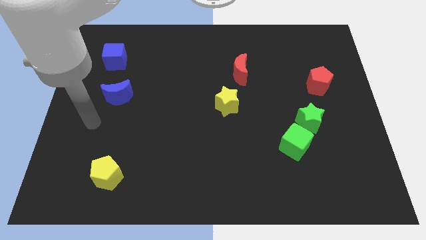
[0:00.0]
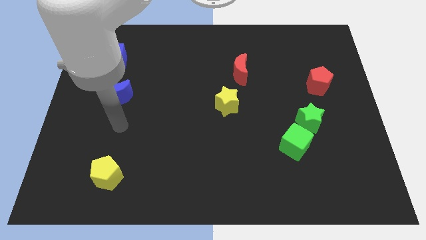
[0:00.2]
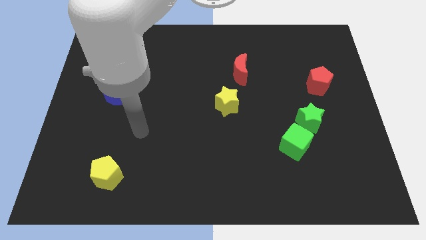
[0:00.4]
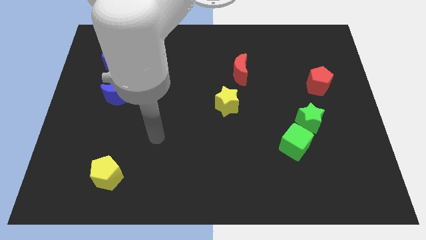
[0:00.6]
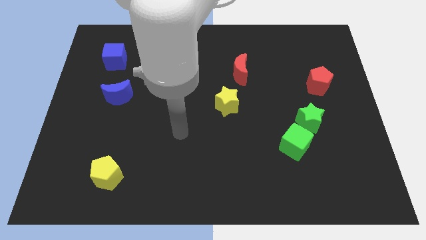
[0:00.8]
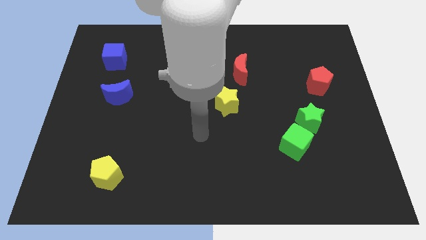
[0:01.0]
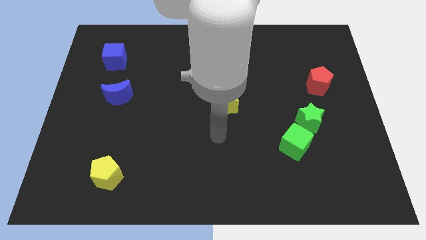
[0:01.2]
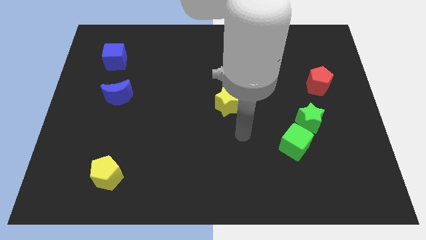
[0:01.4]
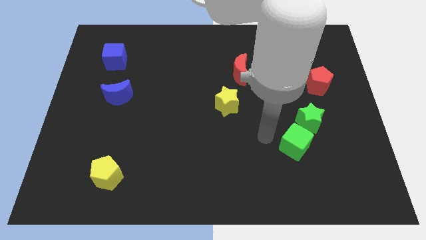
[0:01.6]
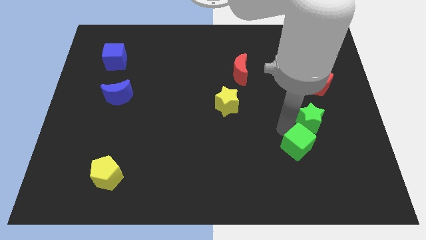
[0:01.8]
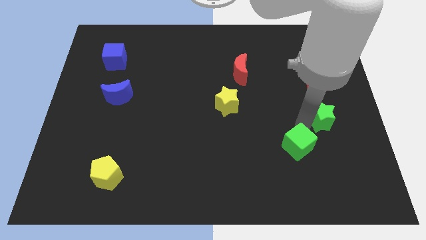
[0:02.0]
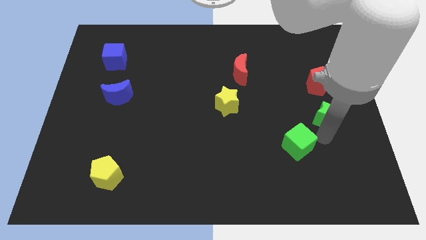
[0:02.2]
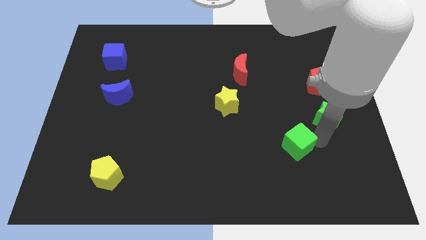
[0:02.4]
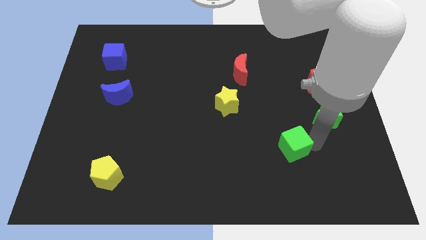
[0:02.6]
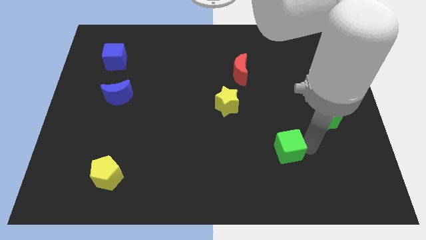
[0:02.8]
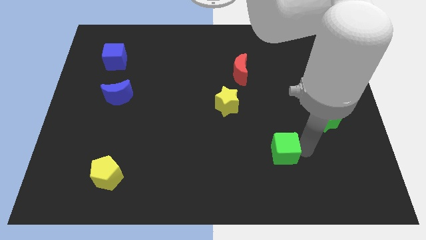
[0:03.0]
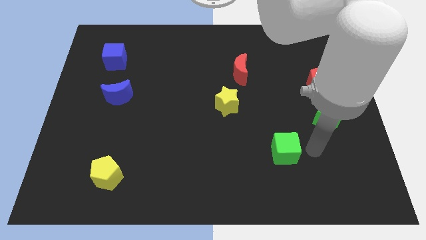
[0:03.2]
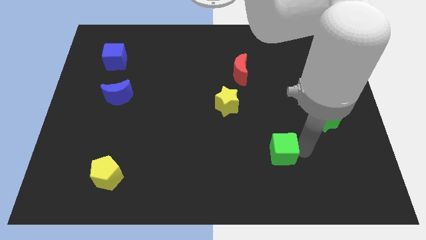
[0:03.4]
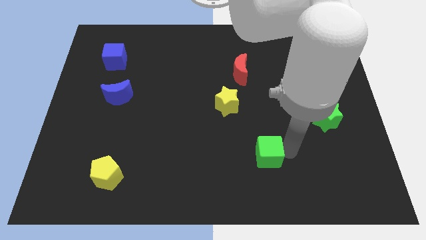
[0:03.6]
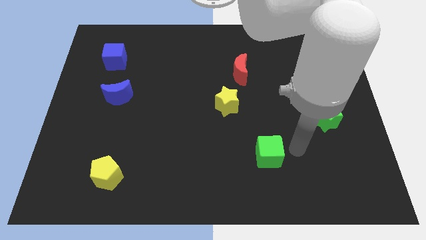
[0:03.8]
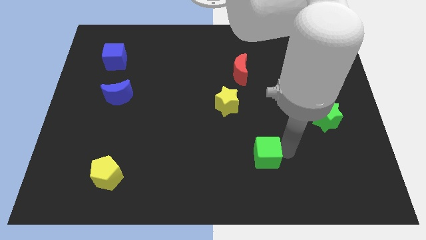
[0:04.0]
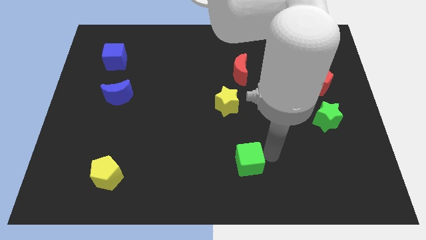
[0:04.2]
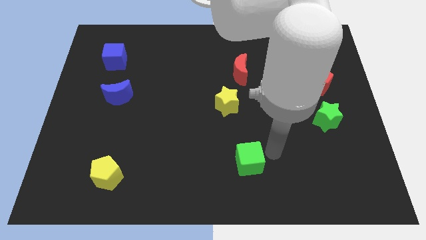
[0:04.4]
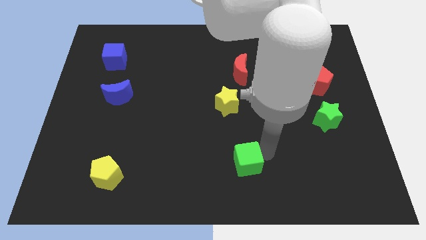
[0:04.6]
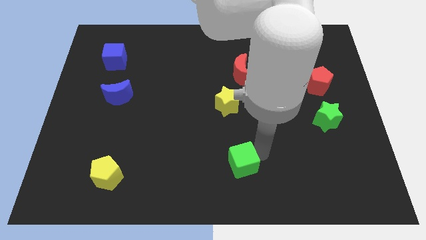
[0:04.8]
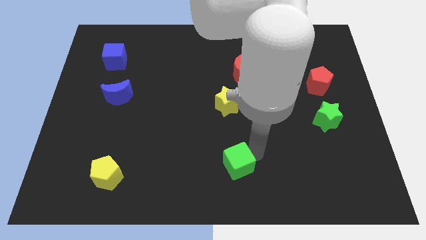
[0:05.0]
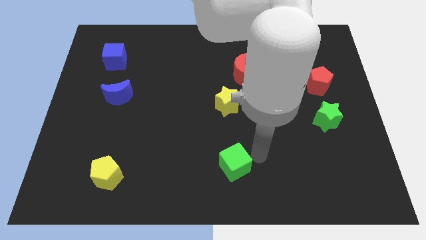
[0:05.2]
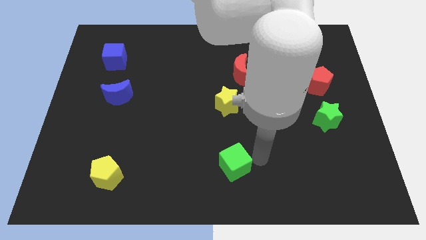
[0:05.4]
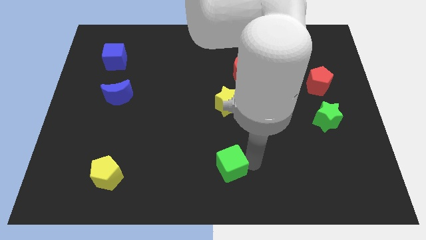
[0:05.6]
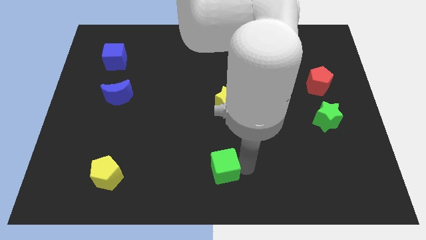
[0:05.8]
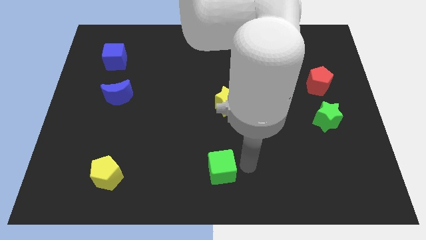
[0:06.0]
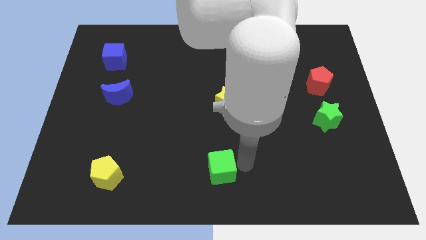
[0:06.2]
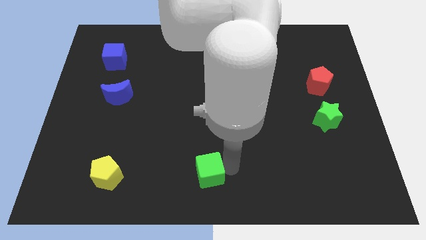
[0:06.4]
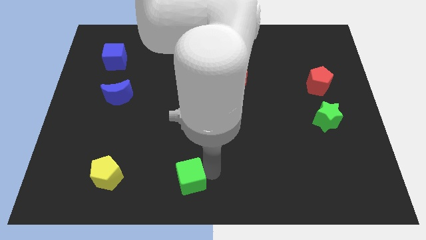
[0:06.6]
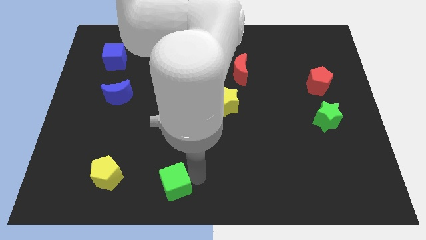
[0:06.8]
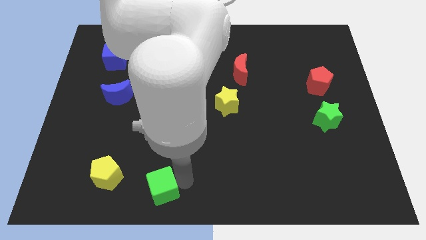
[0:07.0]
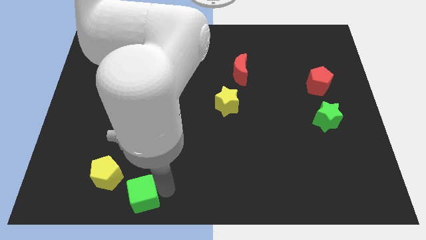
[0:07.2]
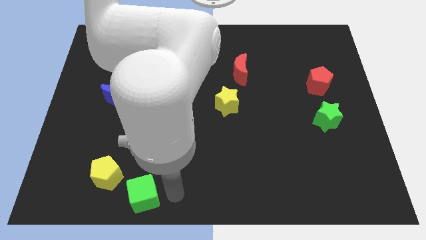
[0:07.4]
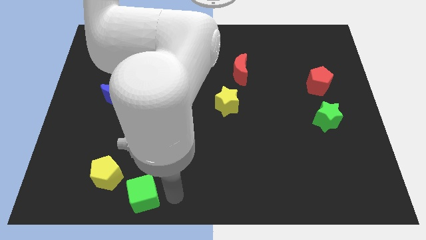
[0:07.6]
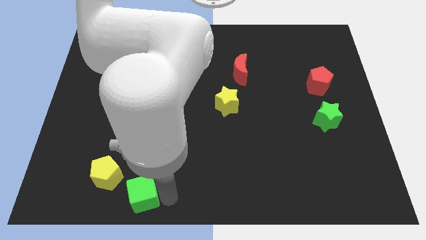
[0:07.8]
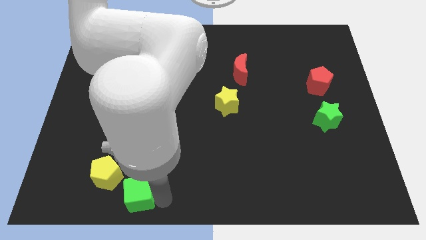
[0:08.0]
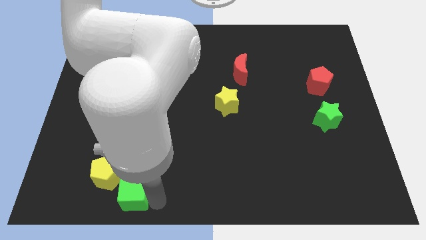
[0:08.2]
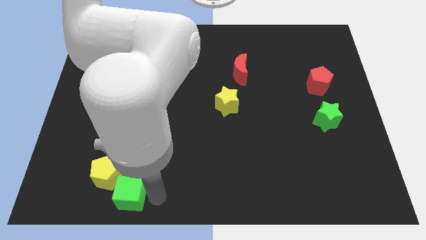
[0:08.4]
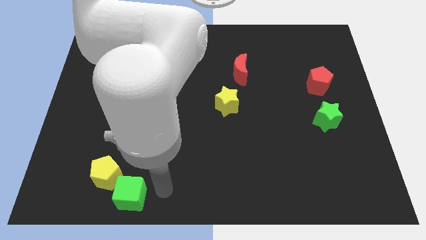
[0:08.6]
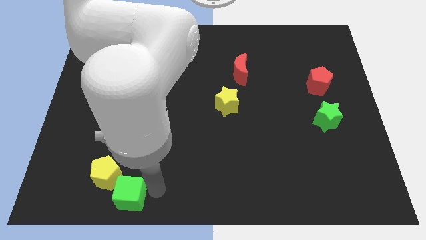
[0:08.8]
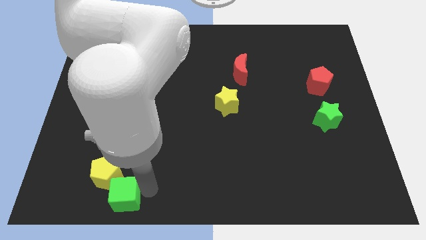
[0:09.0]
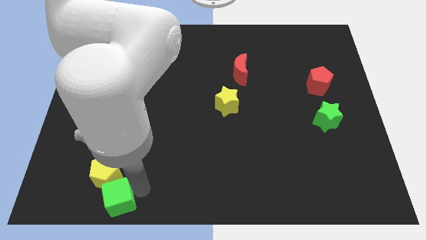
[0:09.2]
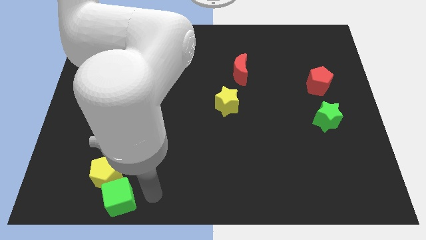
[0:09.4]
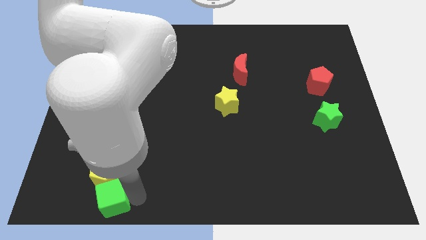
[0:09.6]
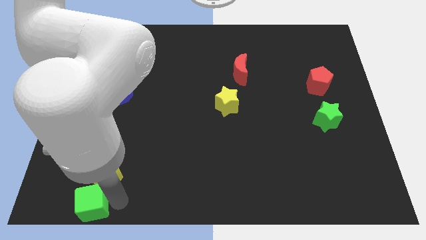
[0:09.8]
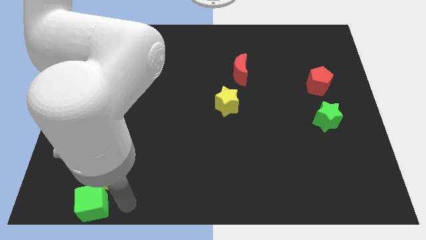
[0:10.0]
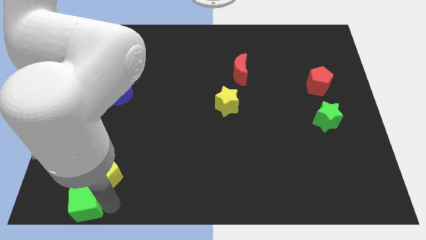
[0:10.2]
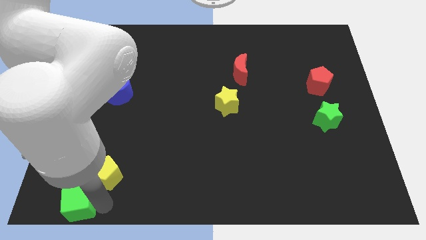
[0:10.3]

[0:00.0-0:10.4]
push the green cube to the lower left corner

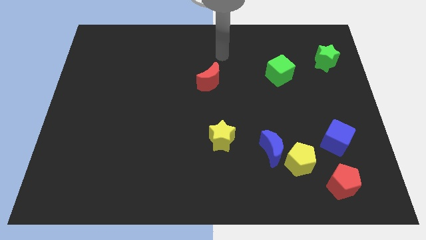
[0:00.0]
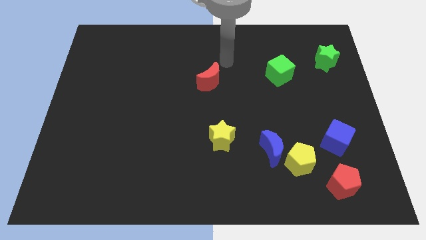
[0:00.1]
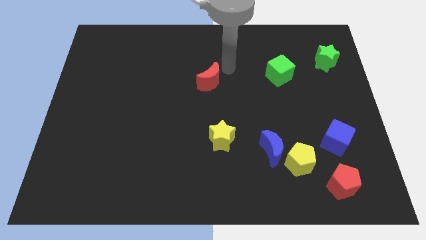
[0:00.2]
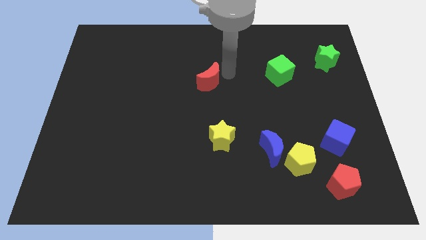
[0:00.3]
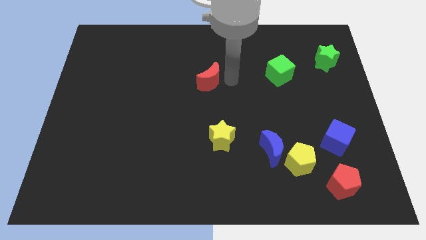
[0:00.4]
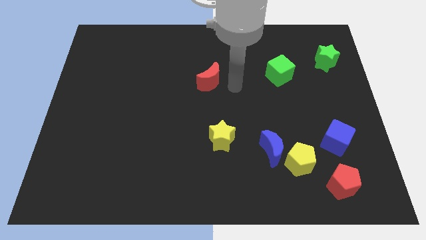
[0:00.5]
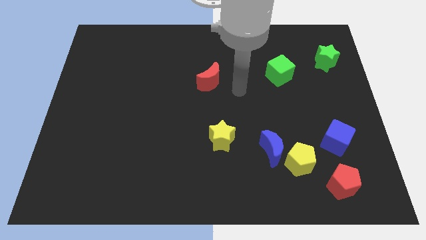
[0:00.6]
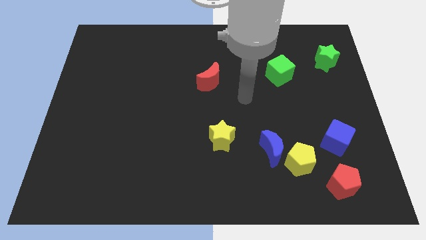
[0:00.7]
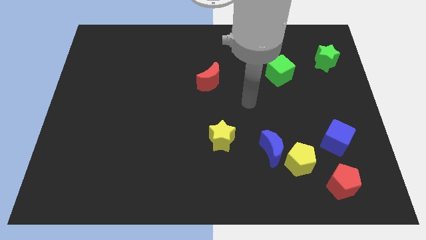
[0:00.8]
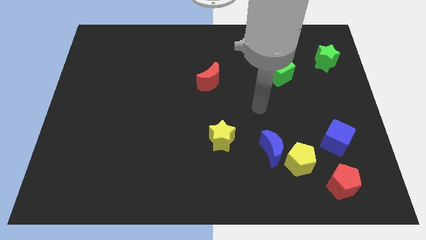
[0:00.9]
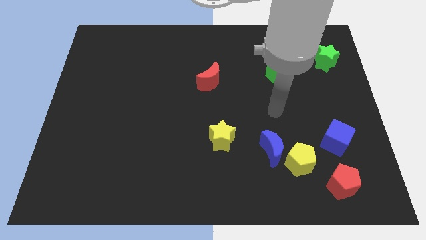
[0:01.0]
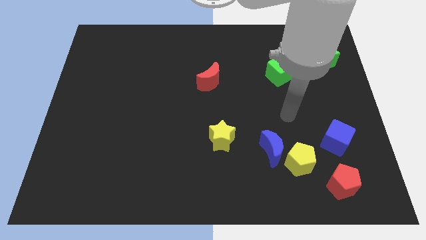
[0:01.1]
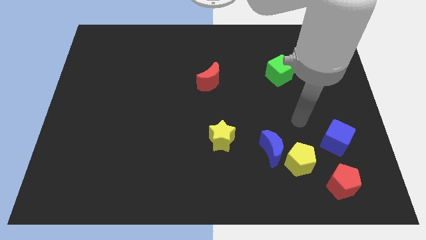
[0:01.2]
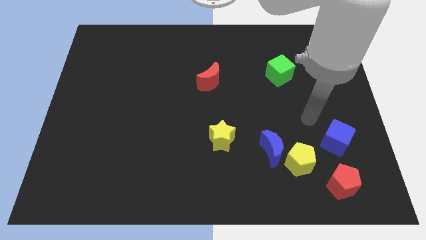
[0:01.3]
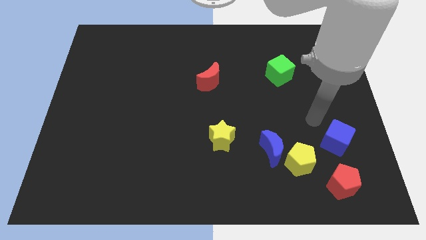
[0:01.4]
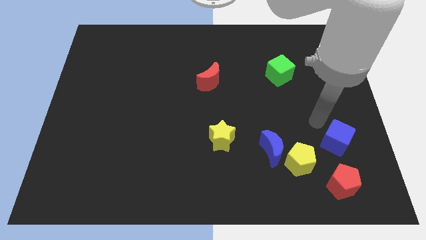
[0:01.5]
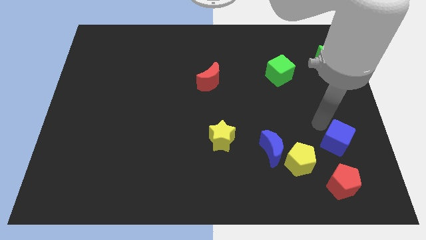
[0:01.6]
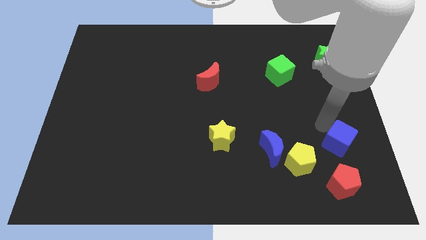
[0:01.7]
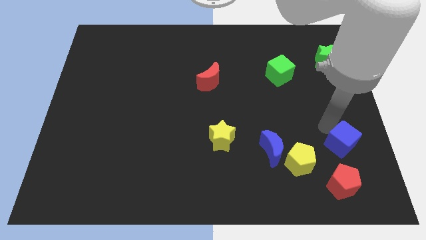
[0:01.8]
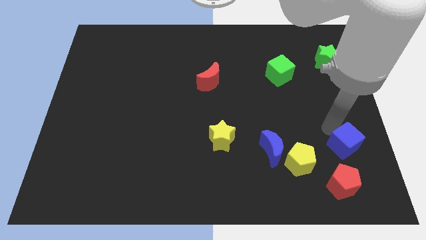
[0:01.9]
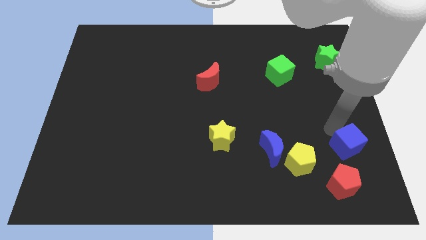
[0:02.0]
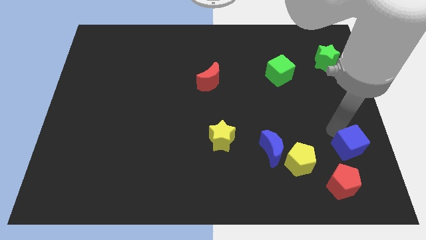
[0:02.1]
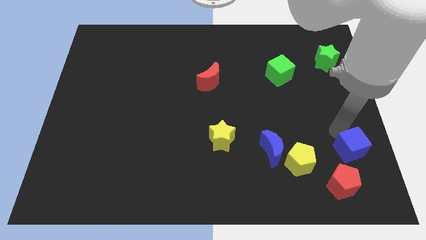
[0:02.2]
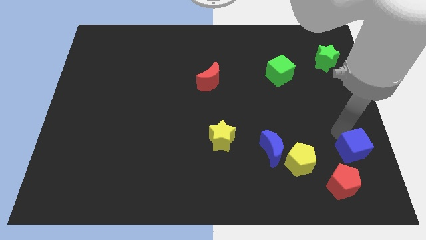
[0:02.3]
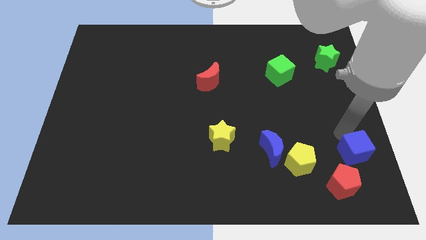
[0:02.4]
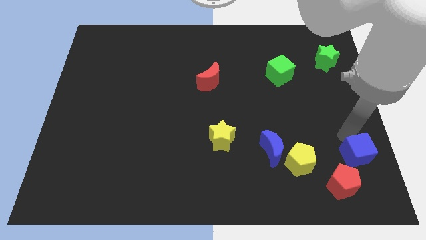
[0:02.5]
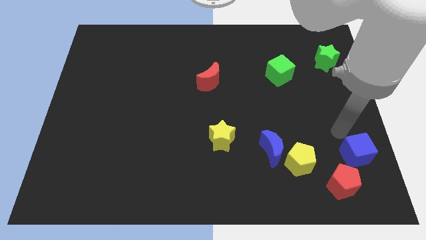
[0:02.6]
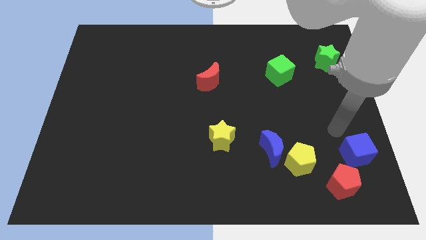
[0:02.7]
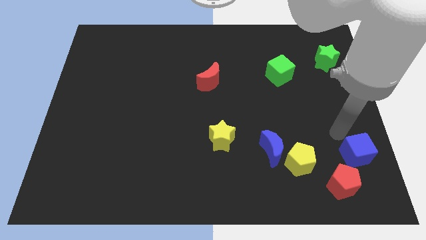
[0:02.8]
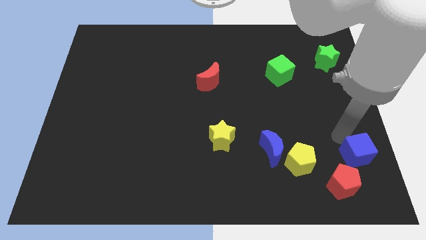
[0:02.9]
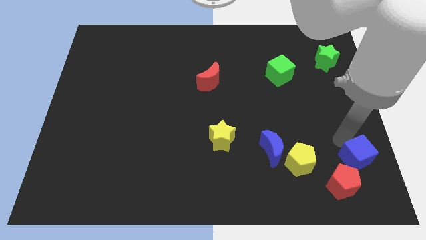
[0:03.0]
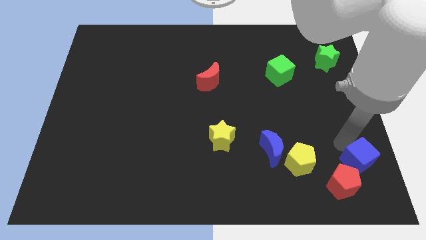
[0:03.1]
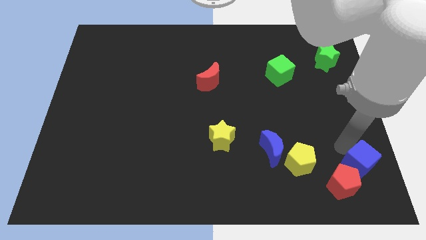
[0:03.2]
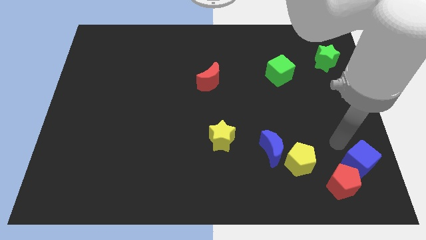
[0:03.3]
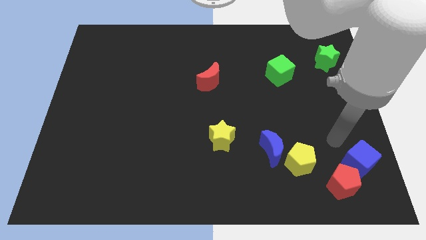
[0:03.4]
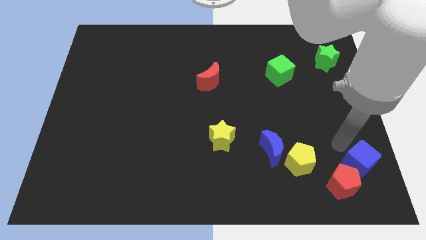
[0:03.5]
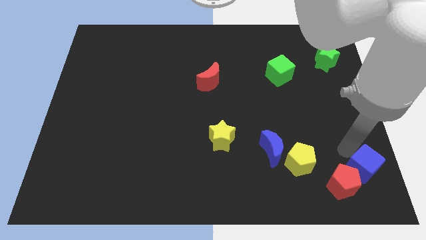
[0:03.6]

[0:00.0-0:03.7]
move the blue cube to the bottom right corner
